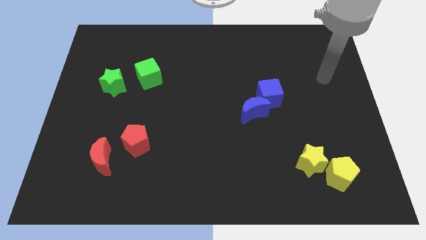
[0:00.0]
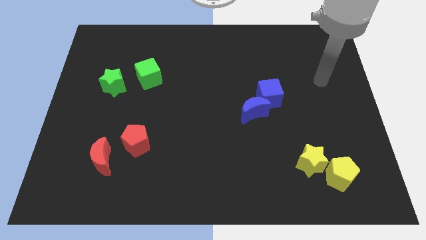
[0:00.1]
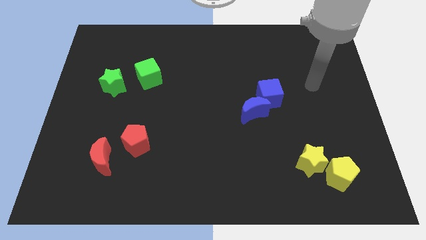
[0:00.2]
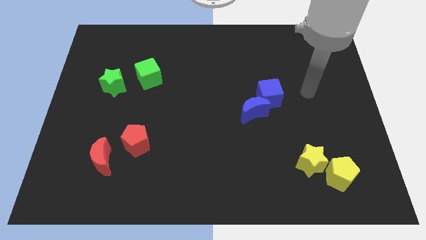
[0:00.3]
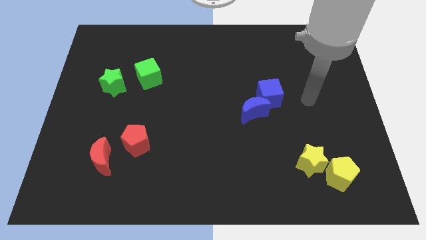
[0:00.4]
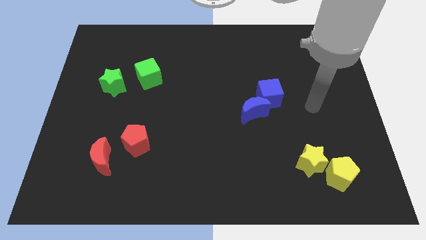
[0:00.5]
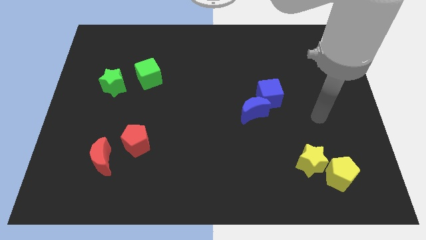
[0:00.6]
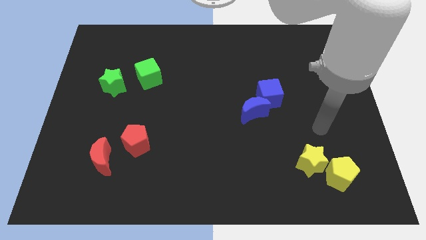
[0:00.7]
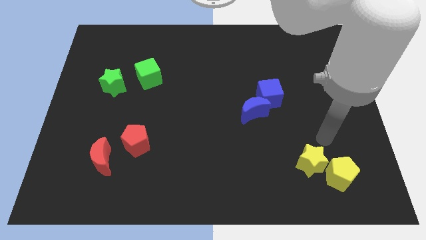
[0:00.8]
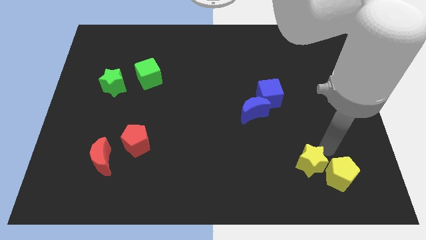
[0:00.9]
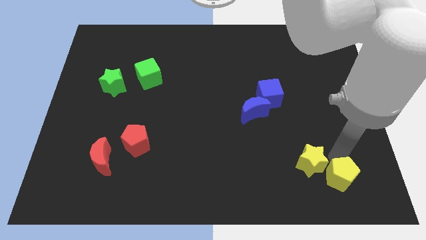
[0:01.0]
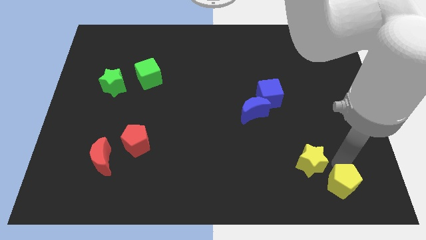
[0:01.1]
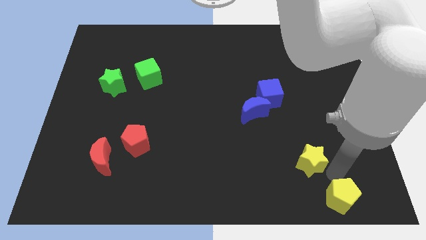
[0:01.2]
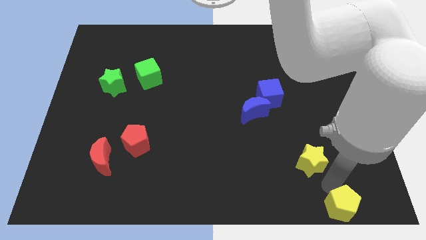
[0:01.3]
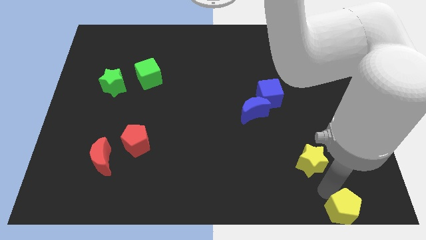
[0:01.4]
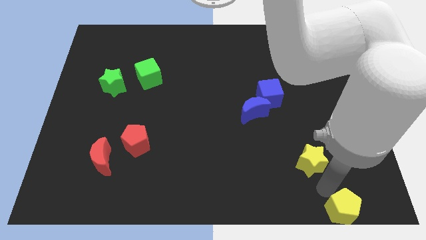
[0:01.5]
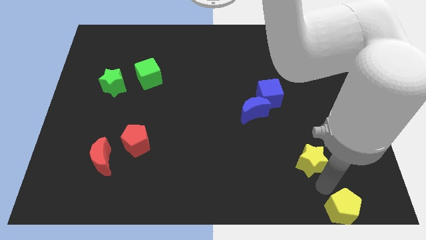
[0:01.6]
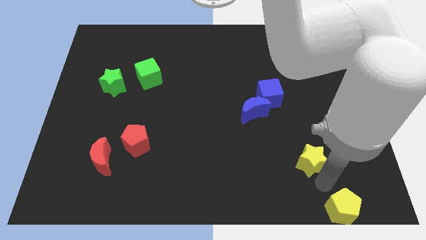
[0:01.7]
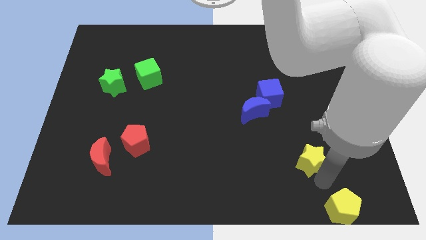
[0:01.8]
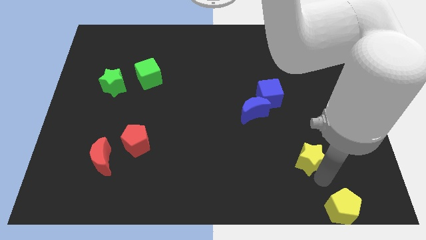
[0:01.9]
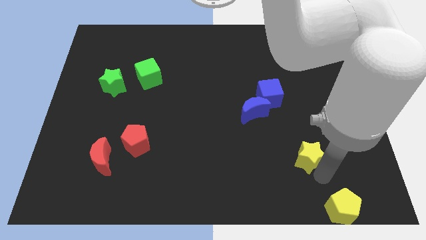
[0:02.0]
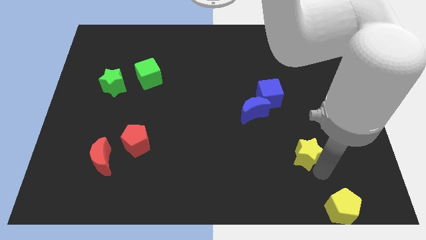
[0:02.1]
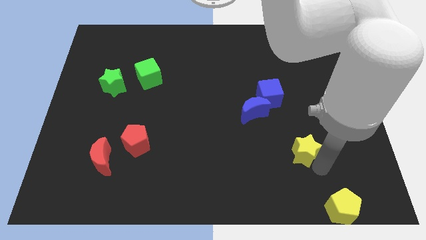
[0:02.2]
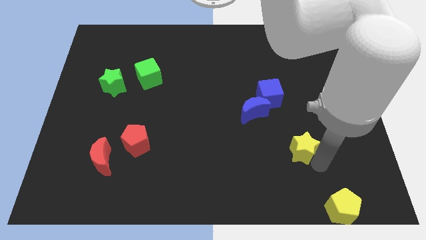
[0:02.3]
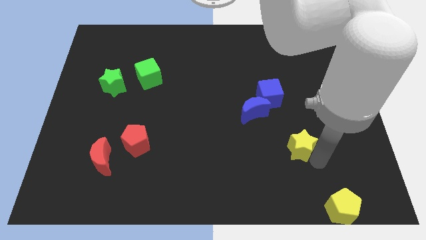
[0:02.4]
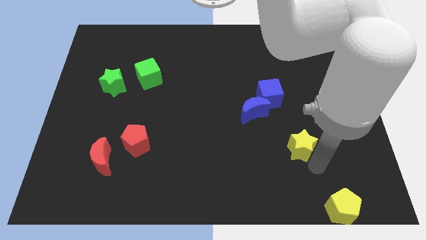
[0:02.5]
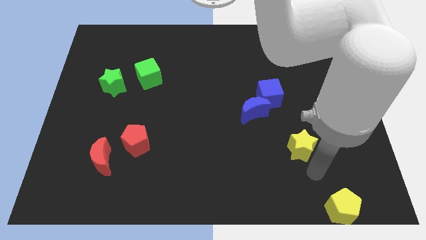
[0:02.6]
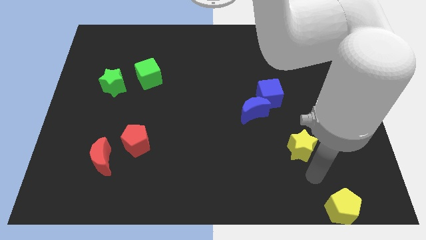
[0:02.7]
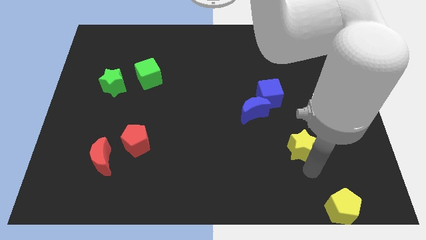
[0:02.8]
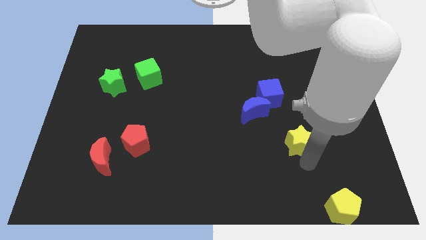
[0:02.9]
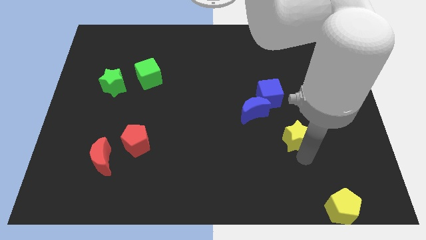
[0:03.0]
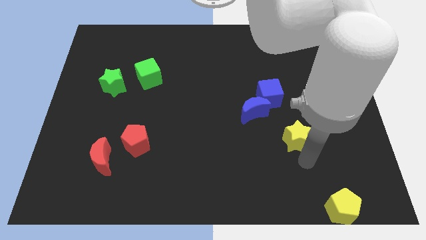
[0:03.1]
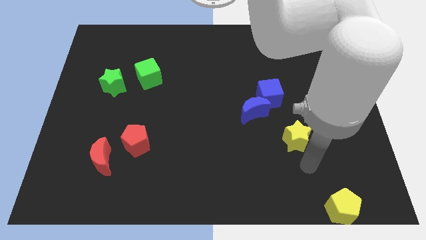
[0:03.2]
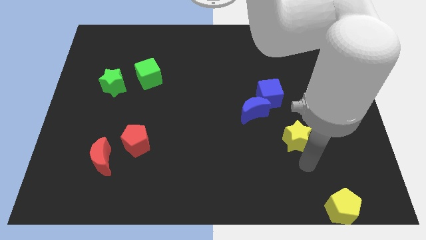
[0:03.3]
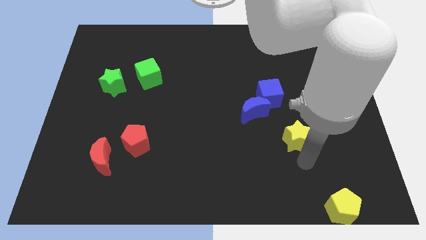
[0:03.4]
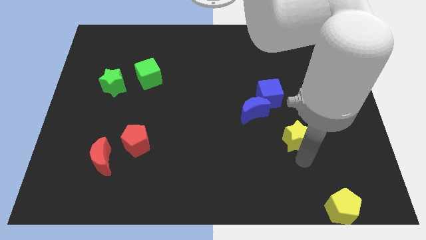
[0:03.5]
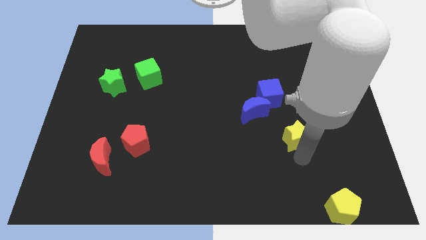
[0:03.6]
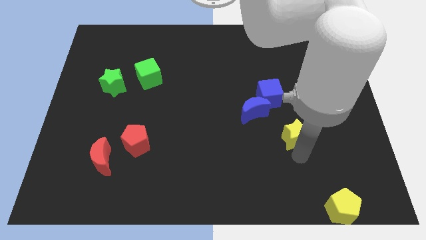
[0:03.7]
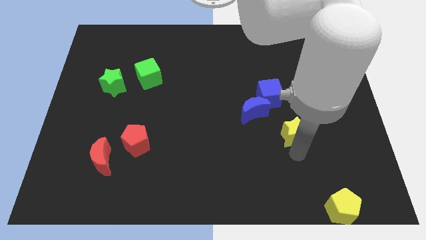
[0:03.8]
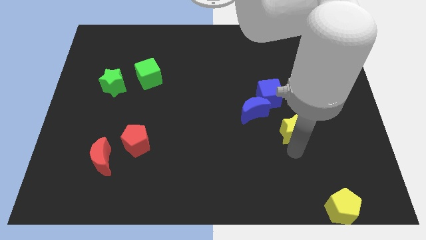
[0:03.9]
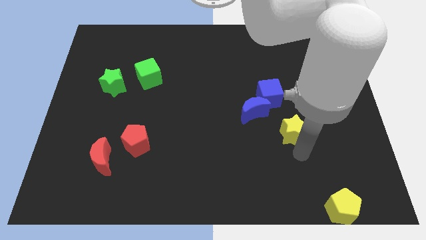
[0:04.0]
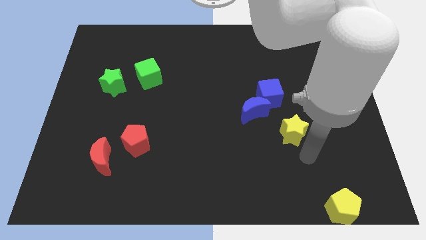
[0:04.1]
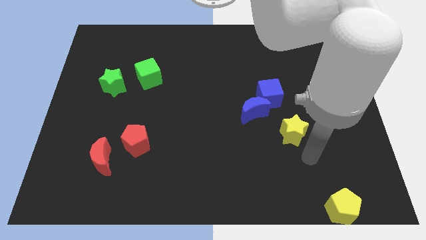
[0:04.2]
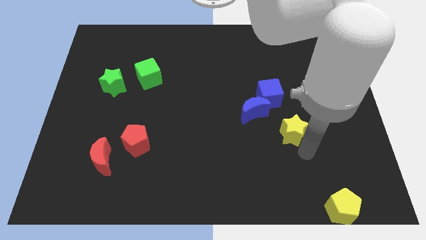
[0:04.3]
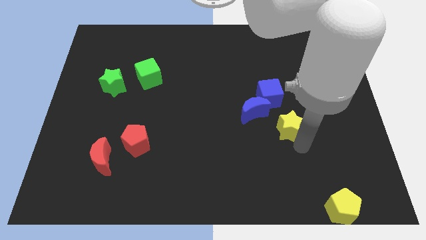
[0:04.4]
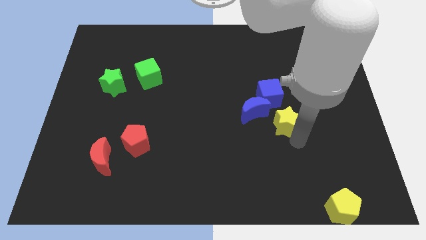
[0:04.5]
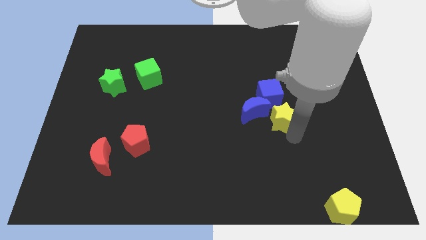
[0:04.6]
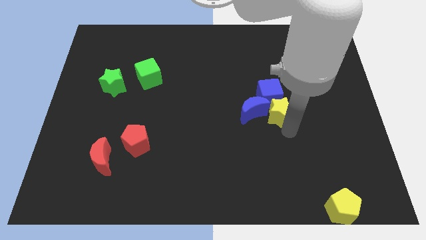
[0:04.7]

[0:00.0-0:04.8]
slide the yellow star towards the blue cube

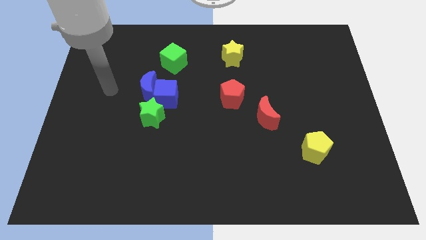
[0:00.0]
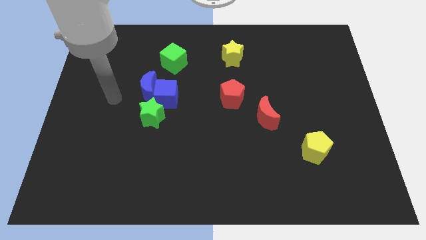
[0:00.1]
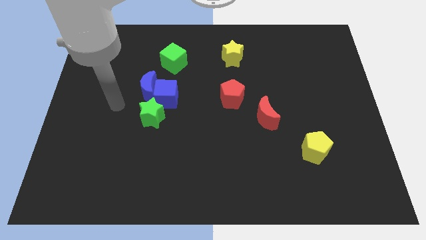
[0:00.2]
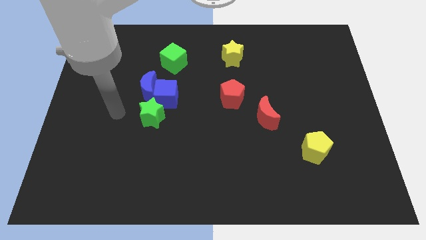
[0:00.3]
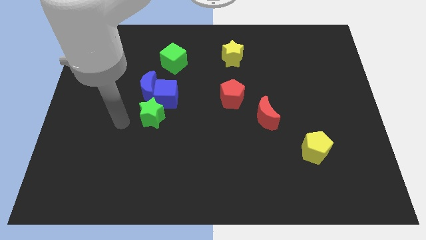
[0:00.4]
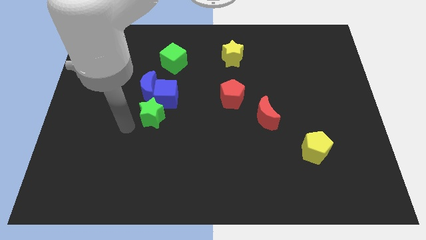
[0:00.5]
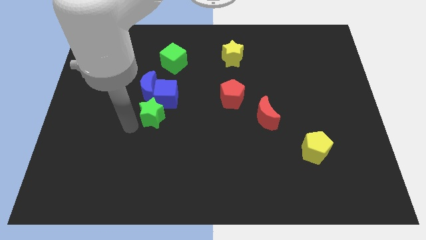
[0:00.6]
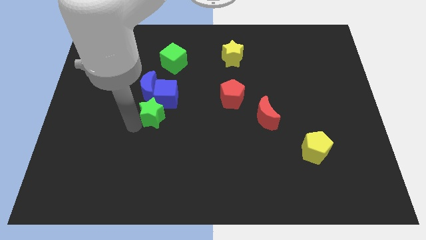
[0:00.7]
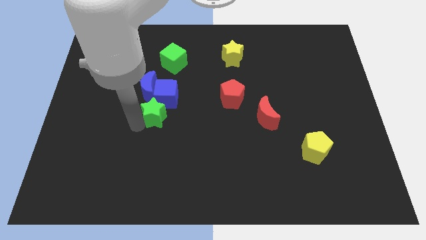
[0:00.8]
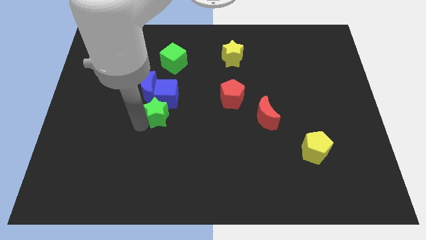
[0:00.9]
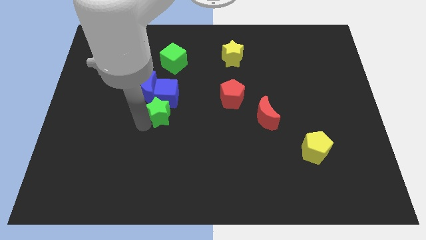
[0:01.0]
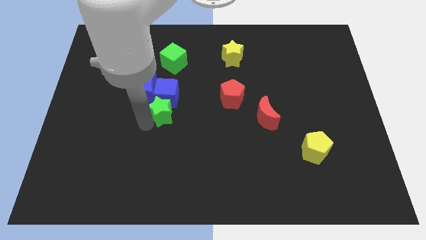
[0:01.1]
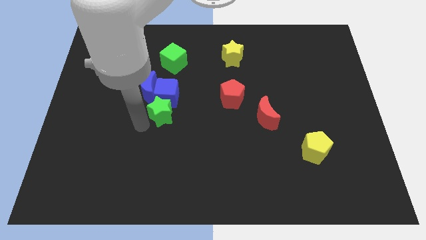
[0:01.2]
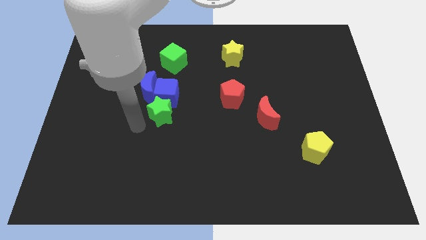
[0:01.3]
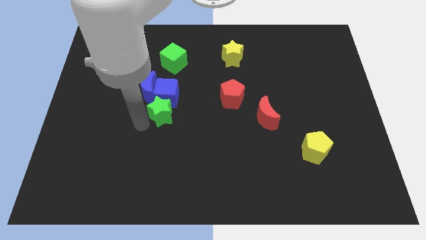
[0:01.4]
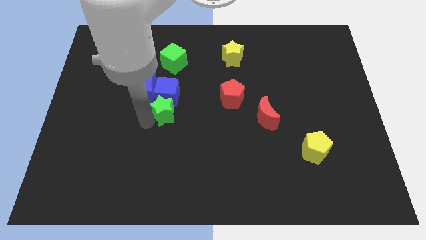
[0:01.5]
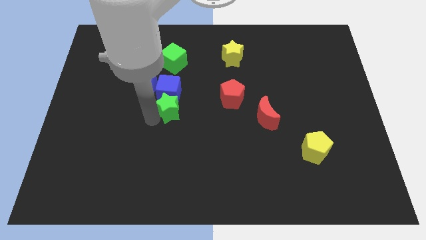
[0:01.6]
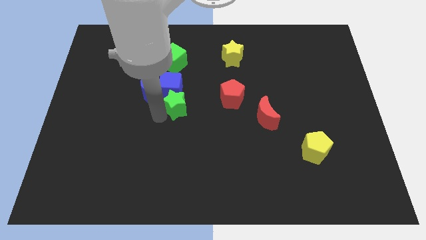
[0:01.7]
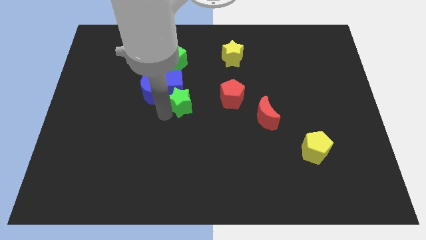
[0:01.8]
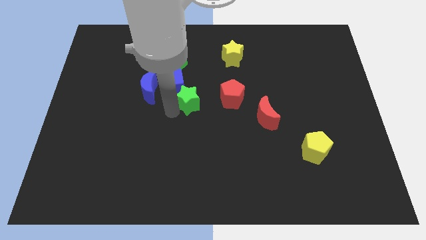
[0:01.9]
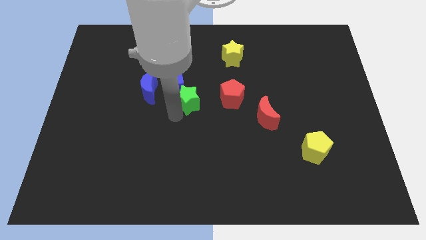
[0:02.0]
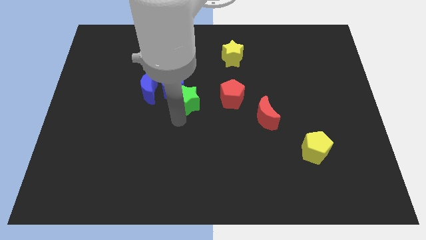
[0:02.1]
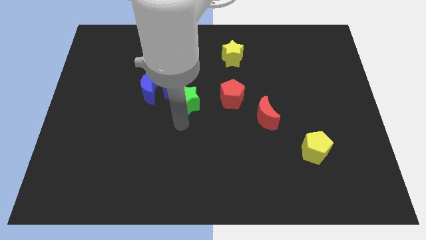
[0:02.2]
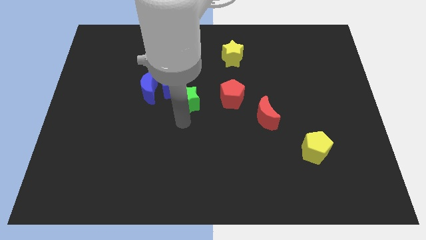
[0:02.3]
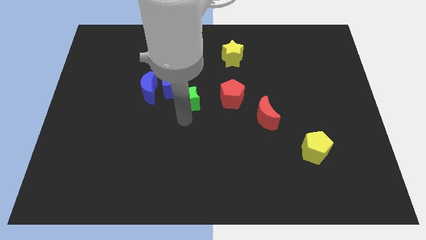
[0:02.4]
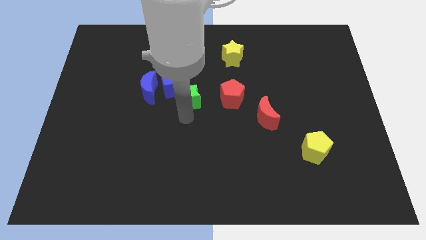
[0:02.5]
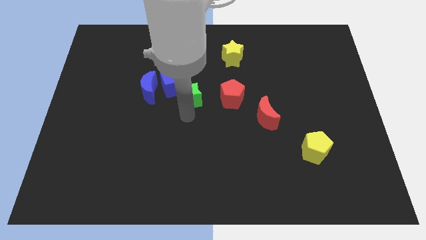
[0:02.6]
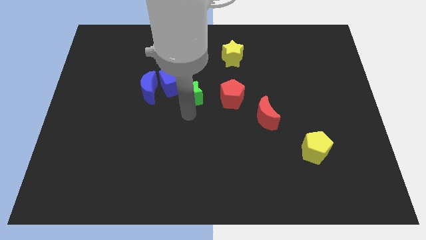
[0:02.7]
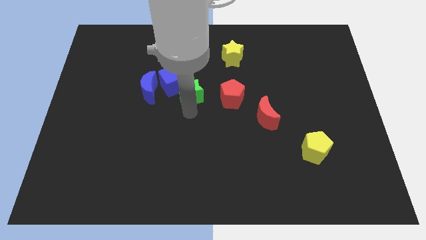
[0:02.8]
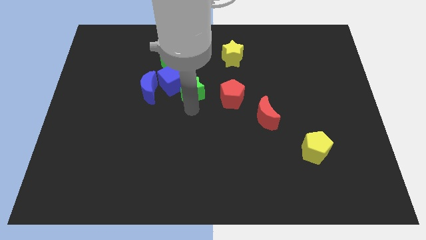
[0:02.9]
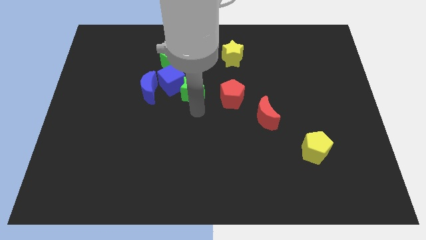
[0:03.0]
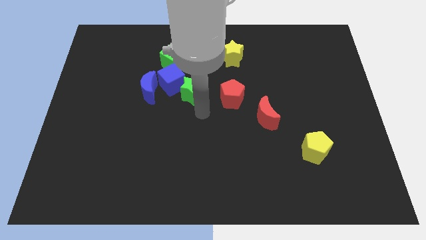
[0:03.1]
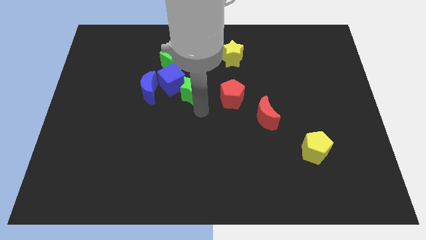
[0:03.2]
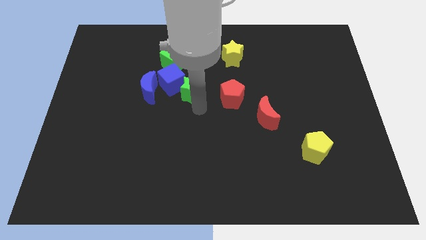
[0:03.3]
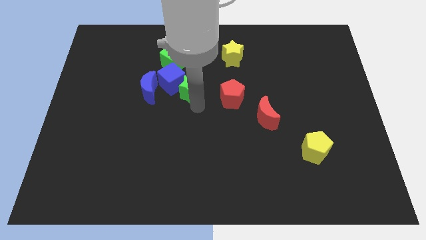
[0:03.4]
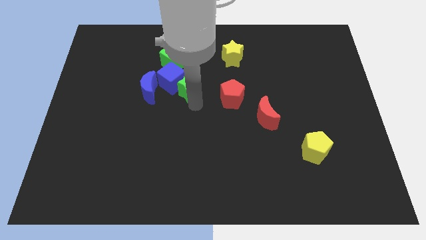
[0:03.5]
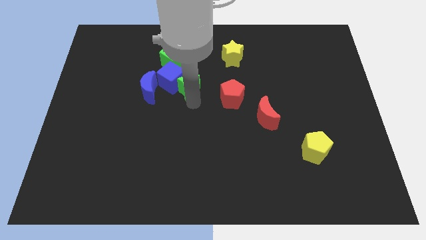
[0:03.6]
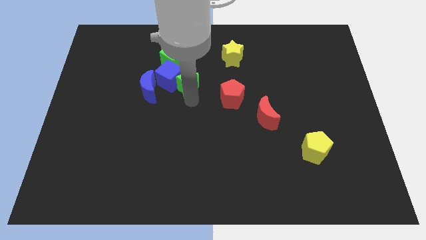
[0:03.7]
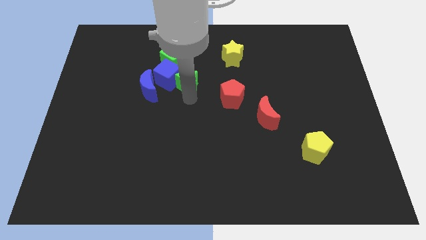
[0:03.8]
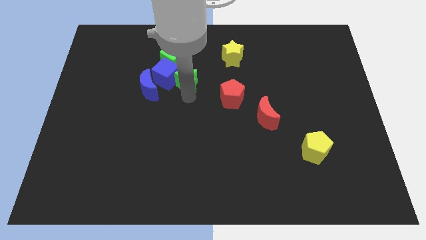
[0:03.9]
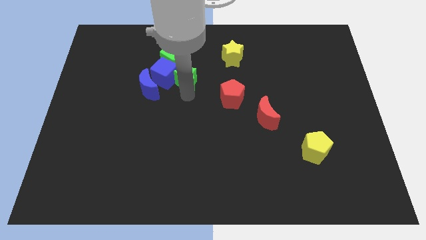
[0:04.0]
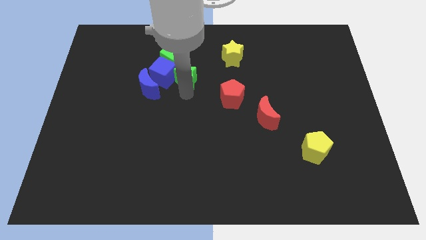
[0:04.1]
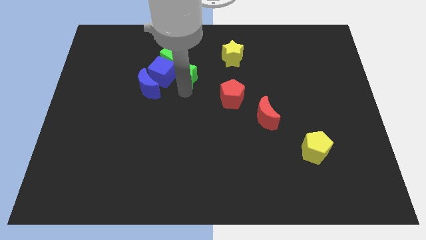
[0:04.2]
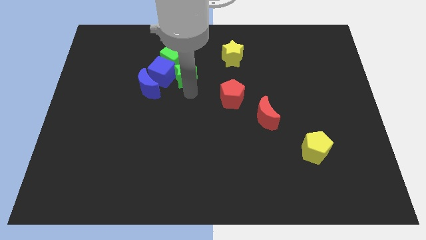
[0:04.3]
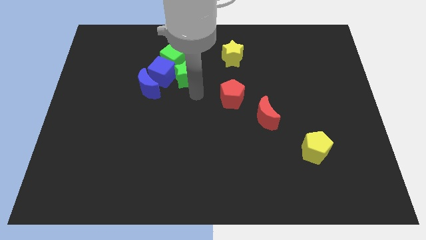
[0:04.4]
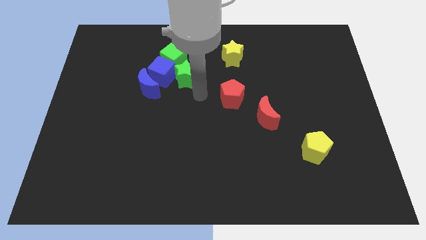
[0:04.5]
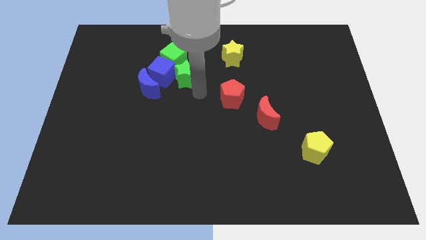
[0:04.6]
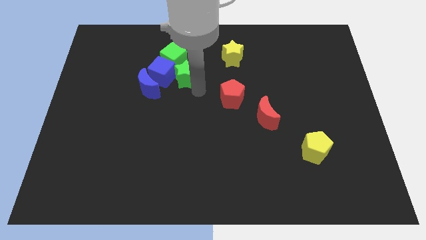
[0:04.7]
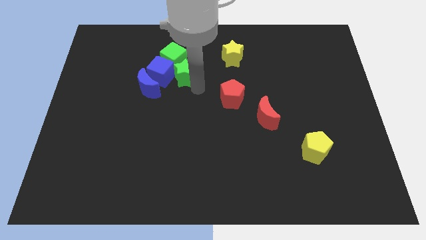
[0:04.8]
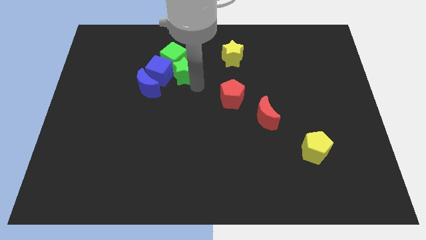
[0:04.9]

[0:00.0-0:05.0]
move the green star to the green cube
